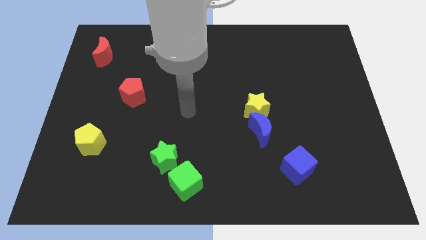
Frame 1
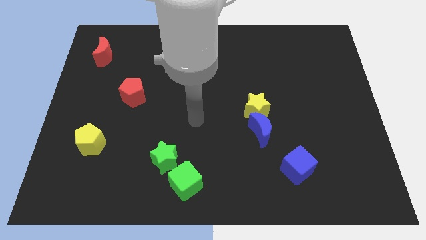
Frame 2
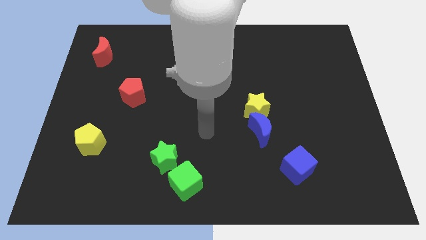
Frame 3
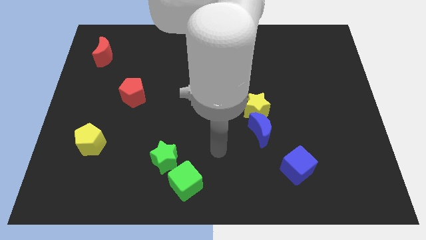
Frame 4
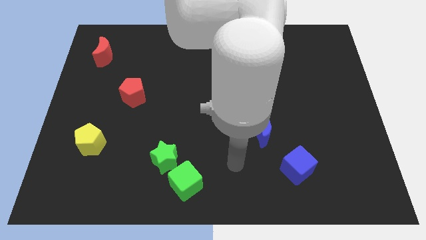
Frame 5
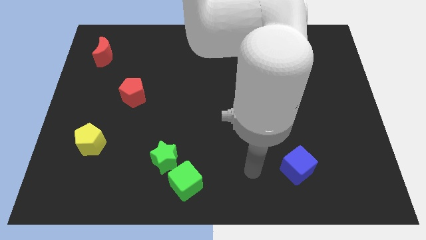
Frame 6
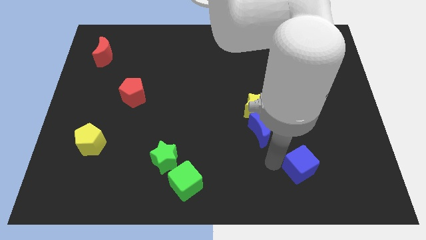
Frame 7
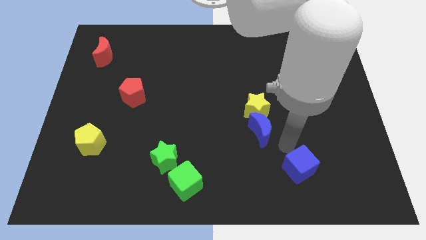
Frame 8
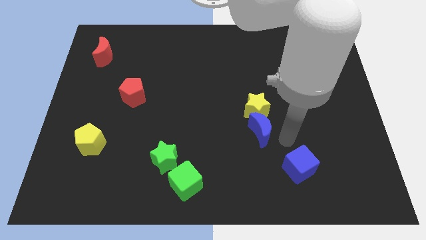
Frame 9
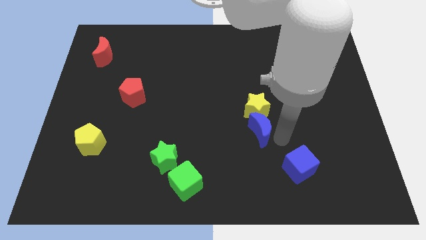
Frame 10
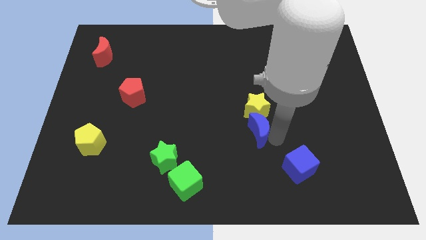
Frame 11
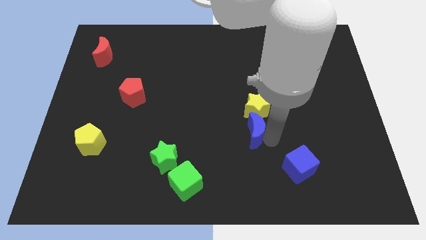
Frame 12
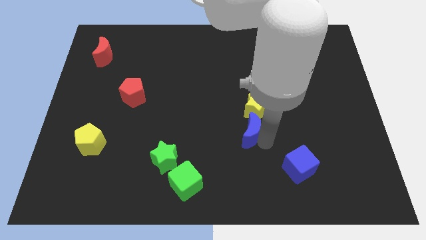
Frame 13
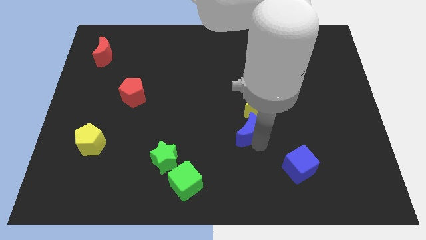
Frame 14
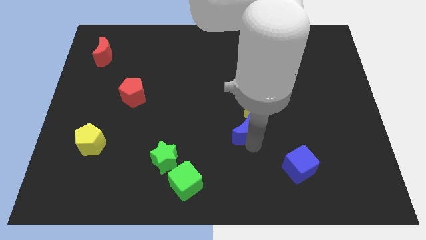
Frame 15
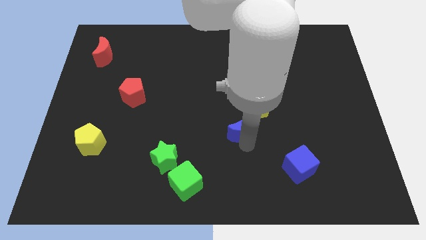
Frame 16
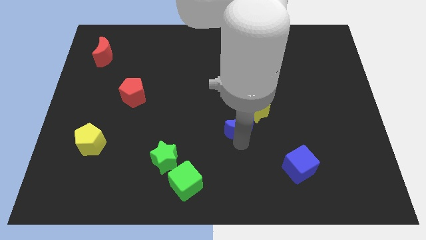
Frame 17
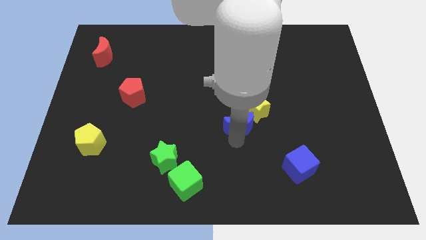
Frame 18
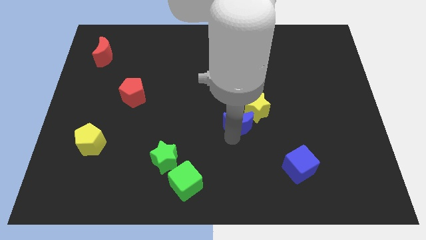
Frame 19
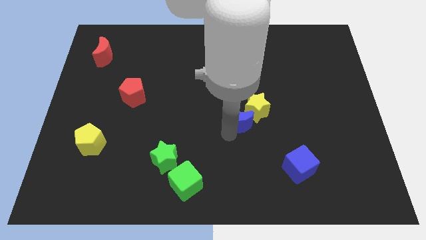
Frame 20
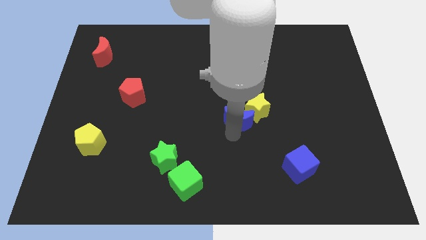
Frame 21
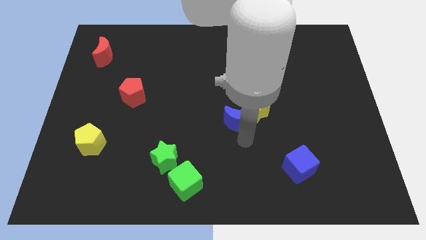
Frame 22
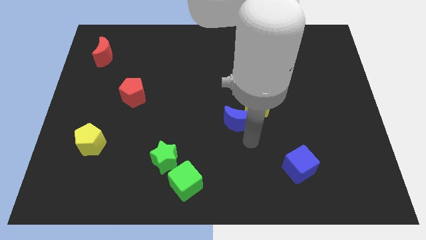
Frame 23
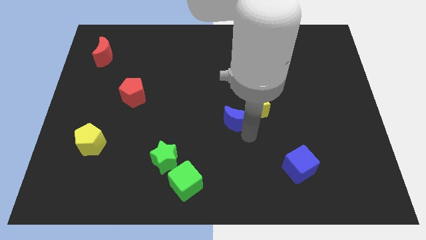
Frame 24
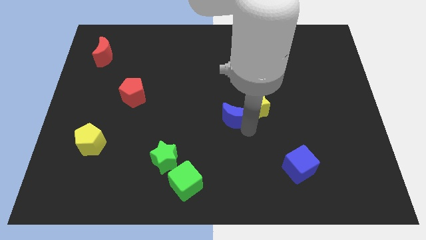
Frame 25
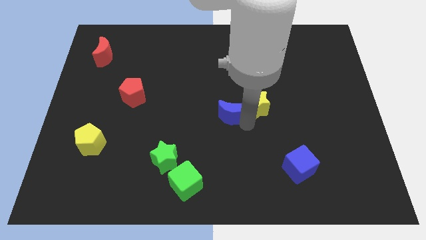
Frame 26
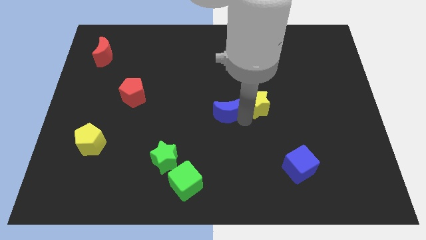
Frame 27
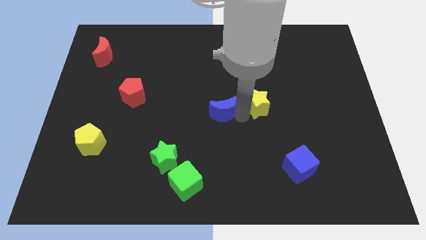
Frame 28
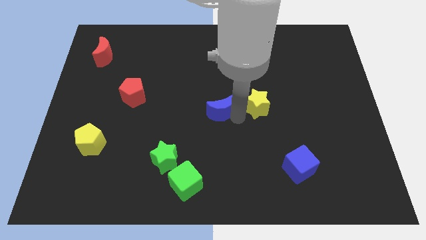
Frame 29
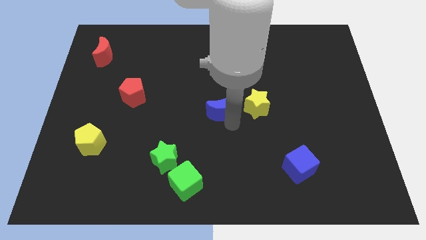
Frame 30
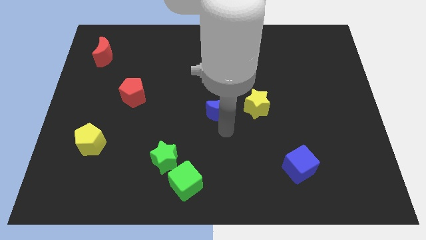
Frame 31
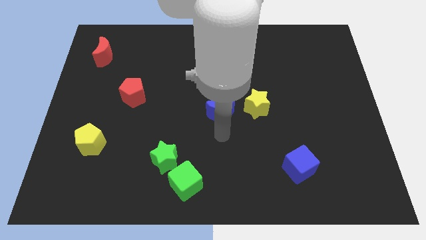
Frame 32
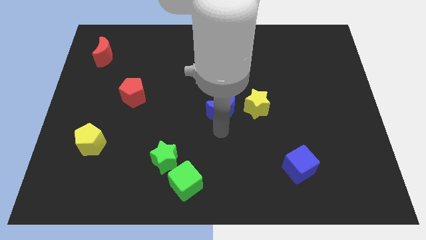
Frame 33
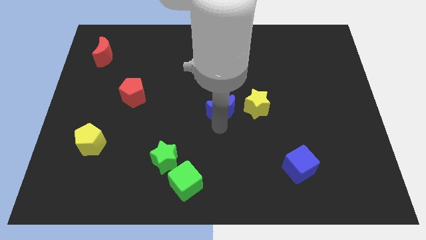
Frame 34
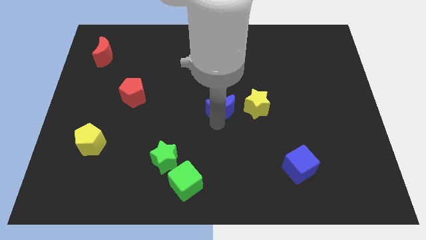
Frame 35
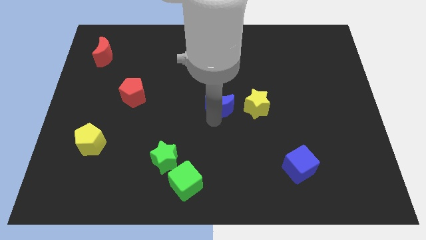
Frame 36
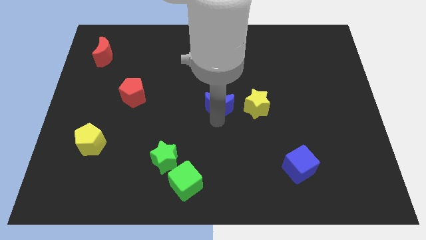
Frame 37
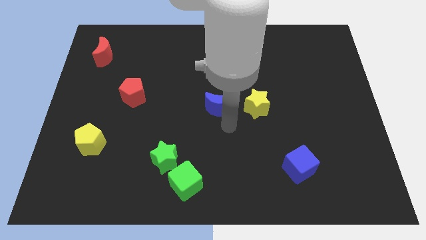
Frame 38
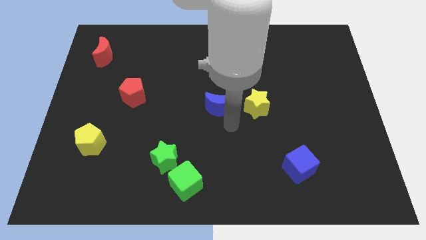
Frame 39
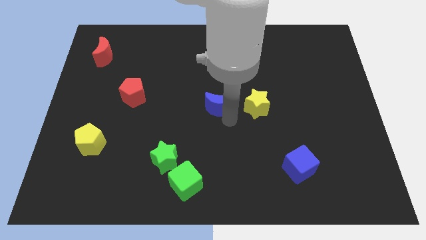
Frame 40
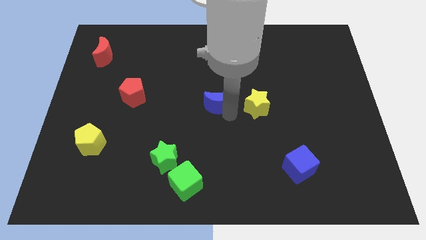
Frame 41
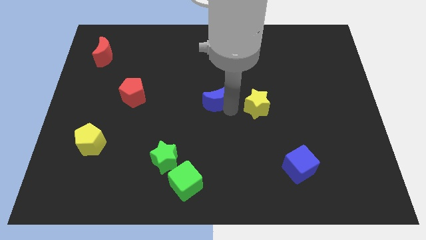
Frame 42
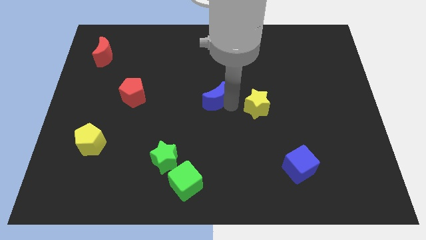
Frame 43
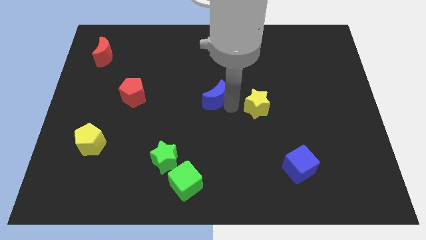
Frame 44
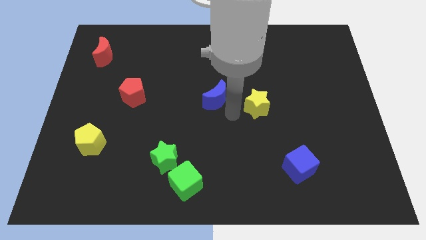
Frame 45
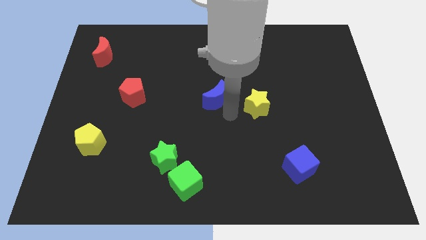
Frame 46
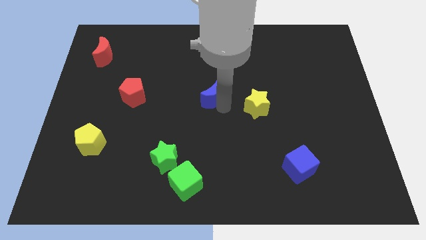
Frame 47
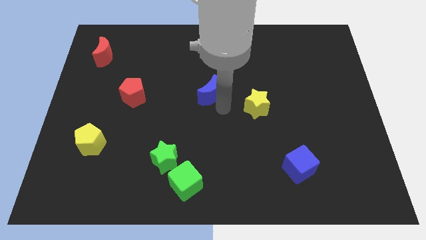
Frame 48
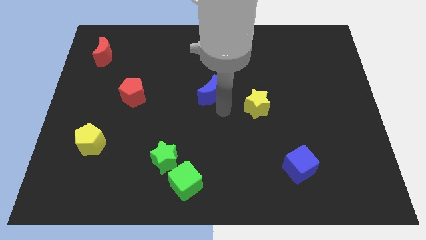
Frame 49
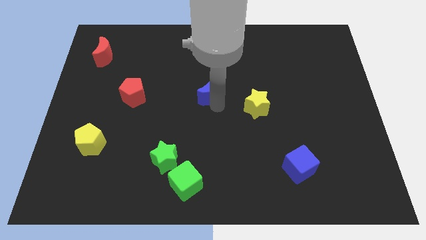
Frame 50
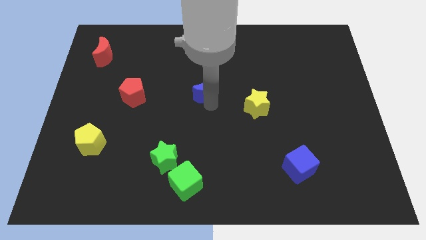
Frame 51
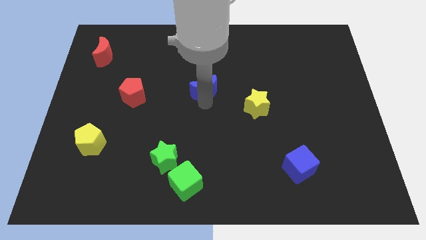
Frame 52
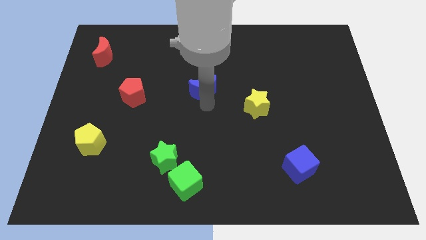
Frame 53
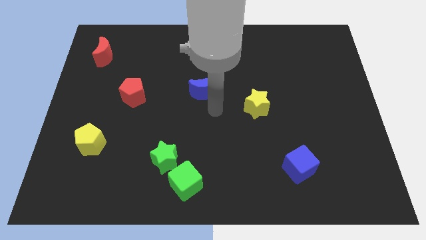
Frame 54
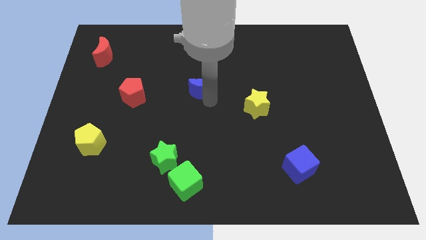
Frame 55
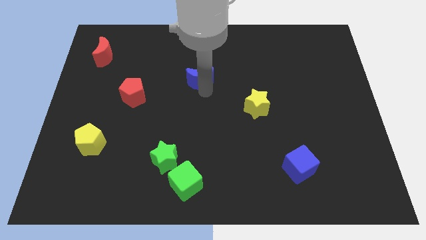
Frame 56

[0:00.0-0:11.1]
slide the blue moon upwards and to the left diagonally

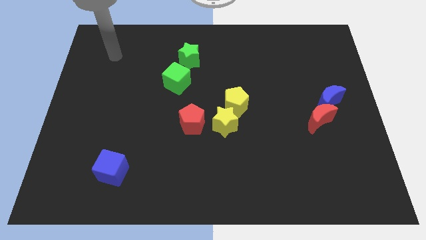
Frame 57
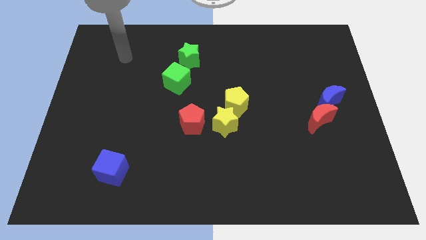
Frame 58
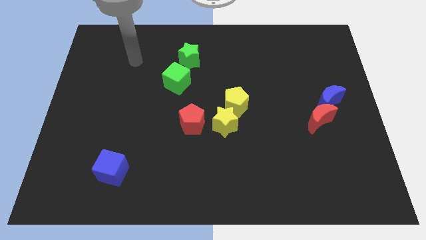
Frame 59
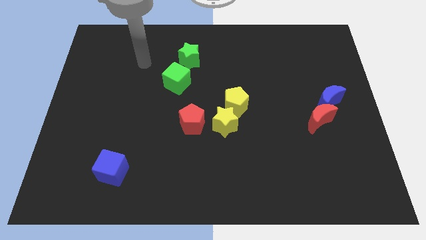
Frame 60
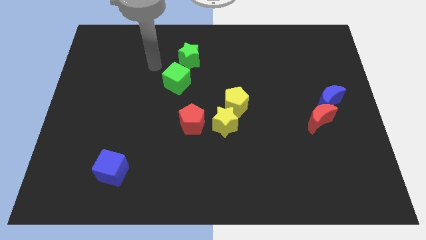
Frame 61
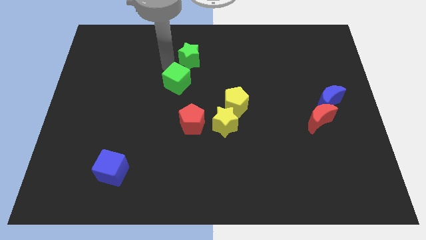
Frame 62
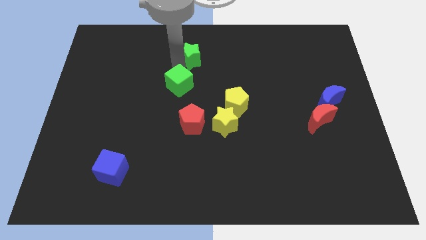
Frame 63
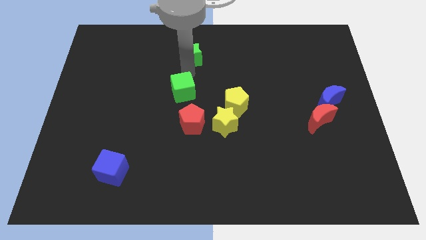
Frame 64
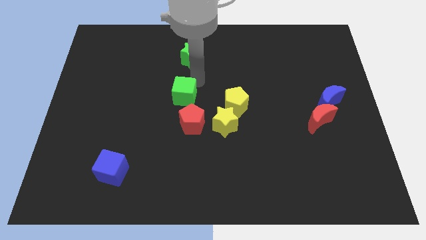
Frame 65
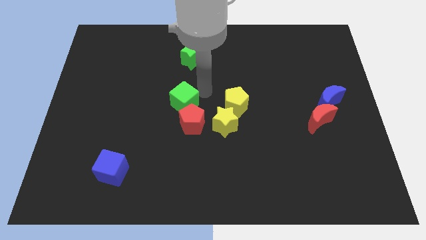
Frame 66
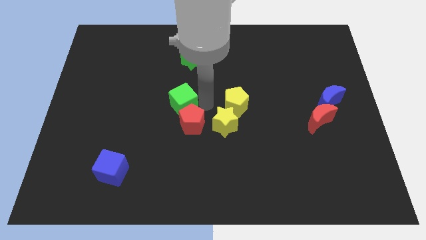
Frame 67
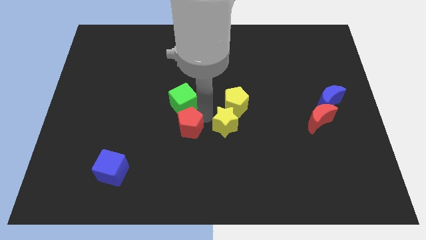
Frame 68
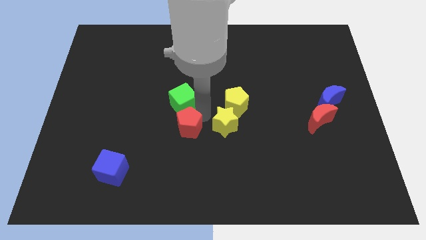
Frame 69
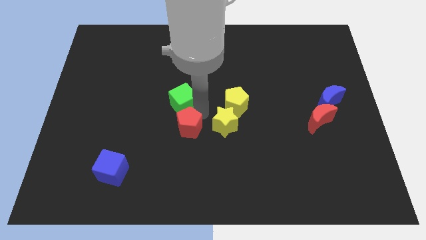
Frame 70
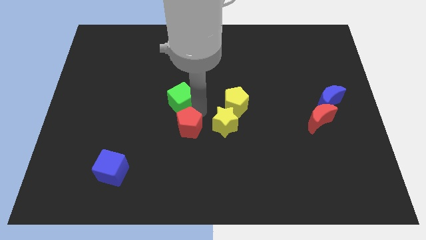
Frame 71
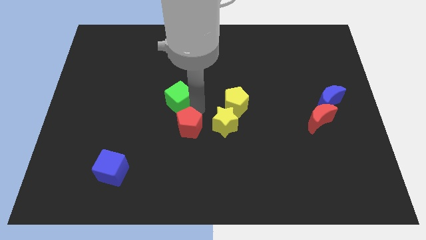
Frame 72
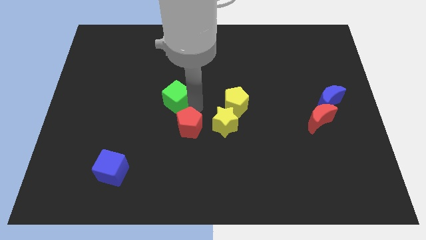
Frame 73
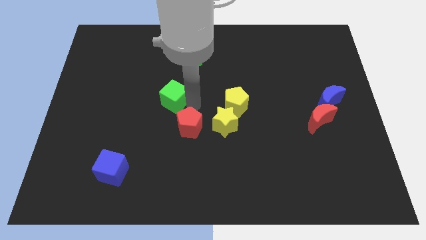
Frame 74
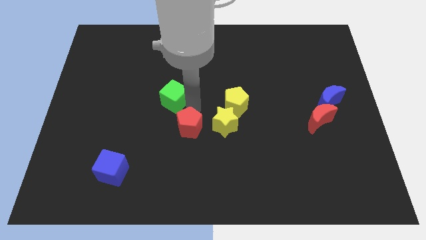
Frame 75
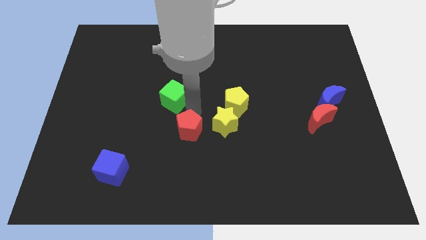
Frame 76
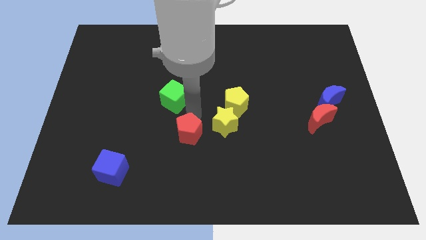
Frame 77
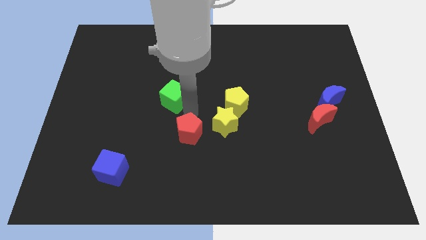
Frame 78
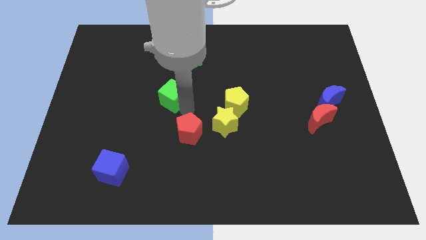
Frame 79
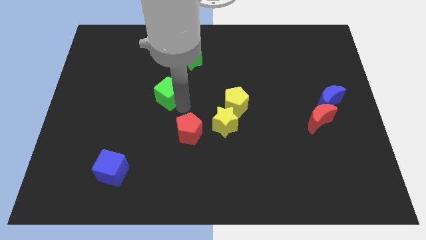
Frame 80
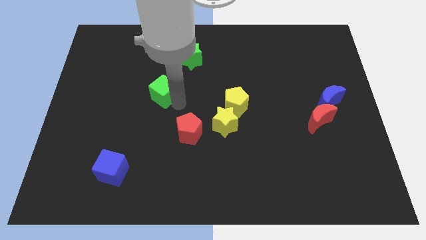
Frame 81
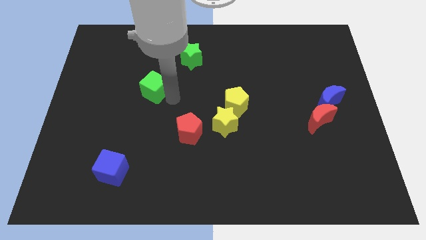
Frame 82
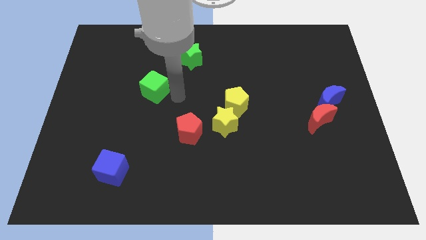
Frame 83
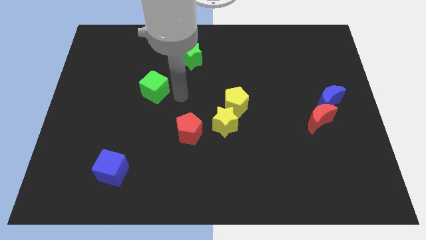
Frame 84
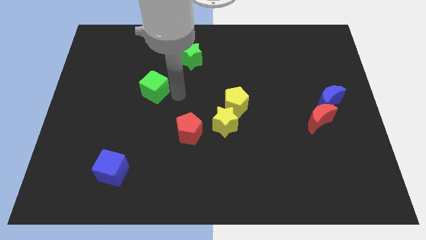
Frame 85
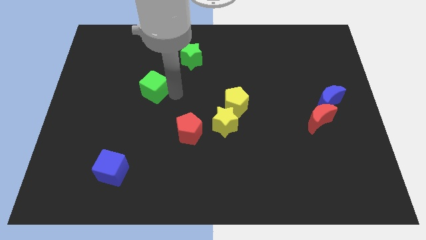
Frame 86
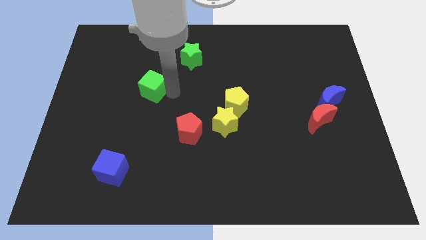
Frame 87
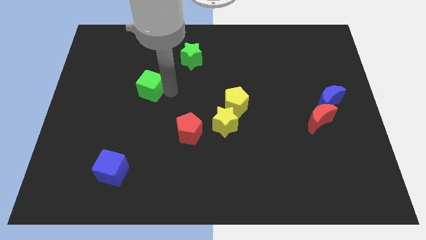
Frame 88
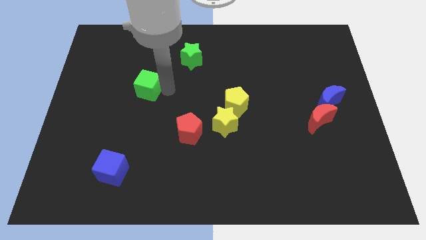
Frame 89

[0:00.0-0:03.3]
slightly push the green cube to the left
